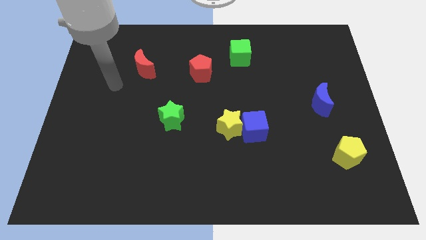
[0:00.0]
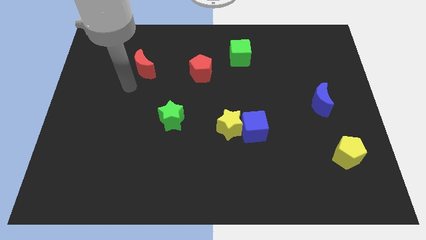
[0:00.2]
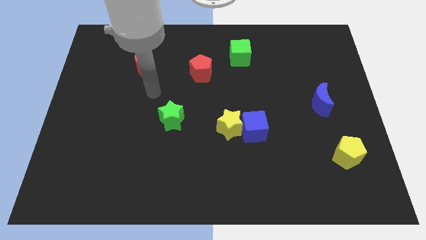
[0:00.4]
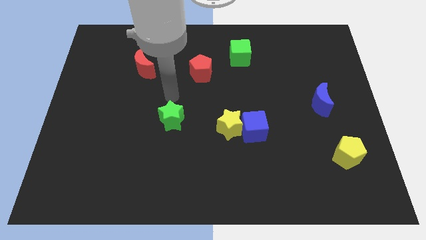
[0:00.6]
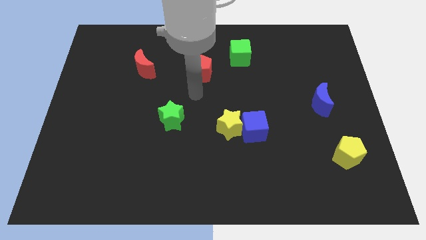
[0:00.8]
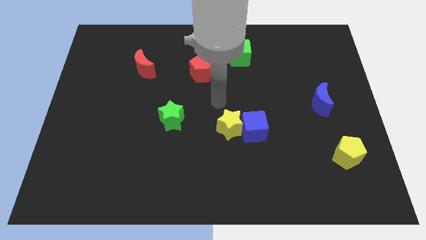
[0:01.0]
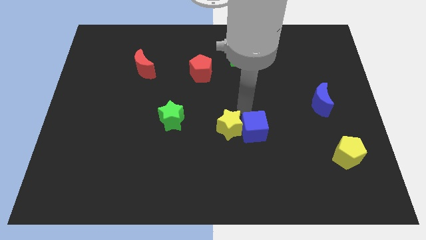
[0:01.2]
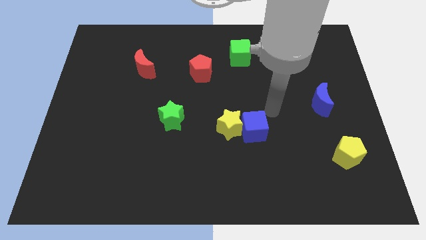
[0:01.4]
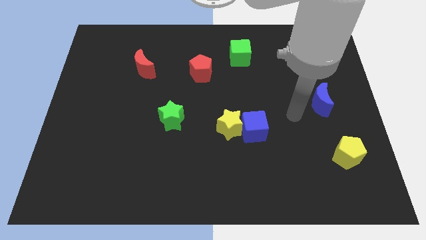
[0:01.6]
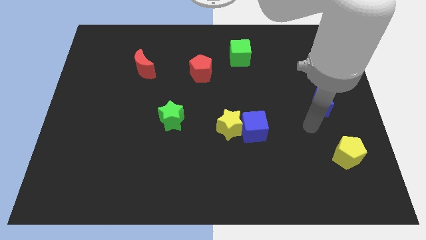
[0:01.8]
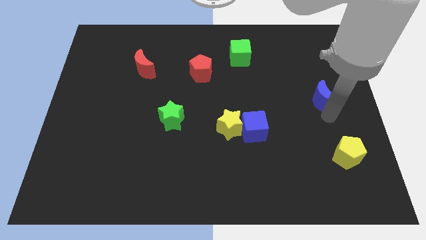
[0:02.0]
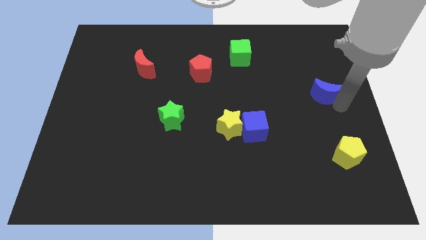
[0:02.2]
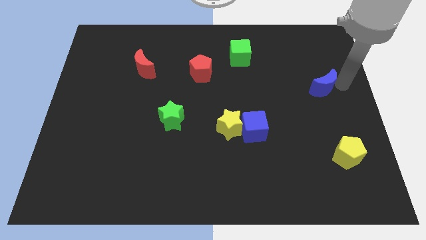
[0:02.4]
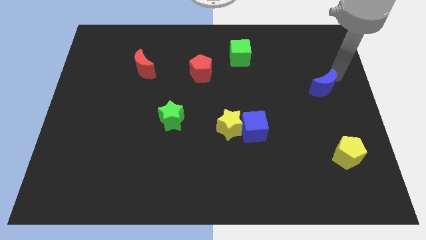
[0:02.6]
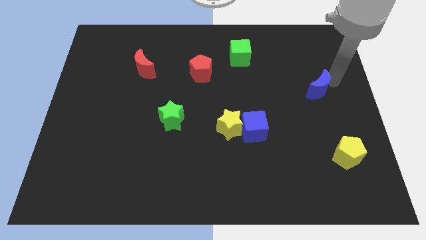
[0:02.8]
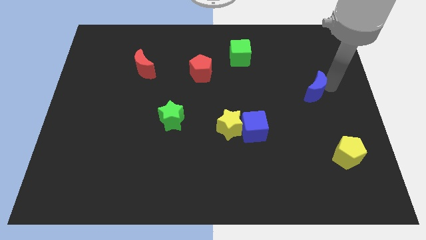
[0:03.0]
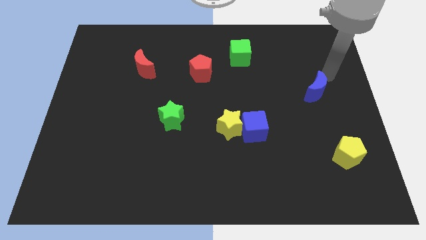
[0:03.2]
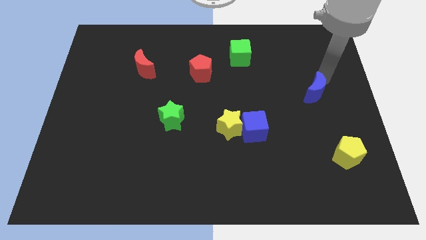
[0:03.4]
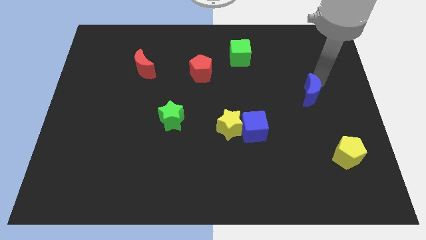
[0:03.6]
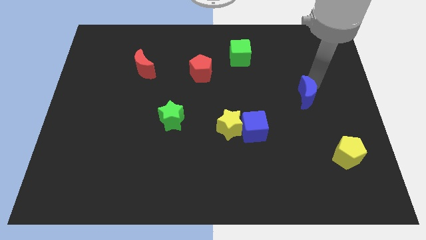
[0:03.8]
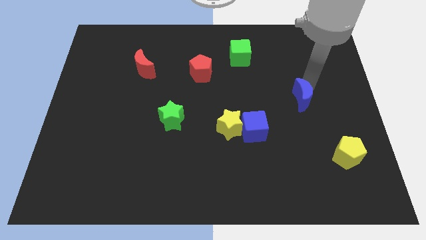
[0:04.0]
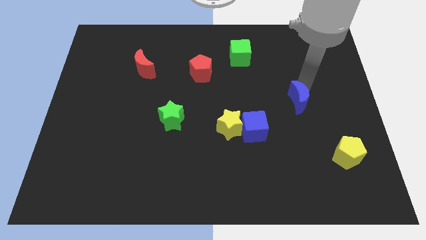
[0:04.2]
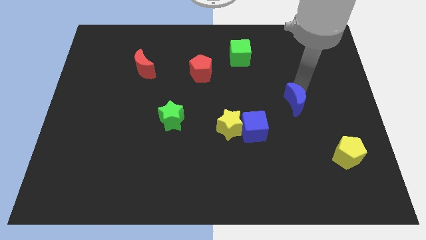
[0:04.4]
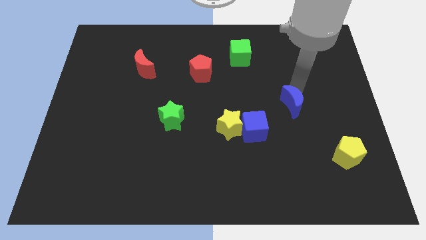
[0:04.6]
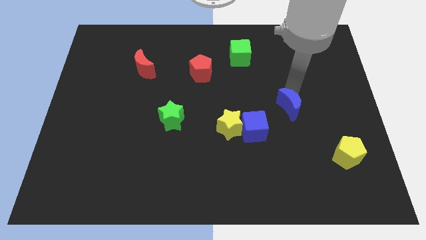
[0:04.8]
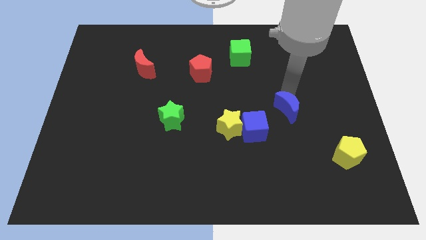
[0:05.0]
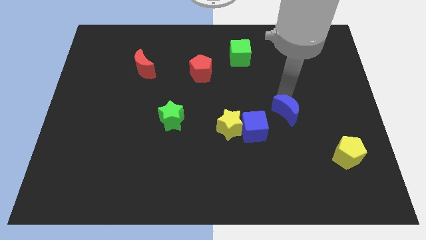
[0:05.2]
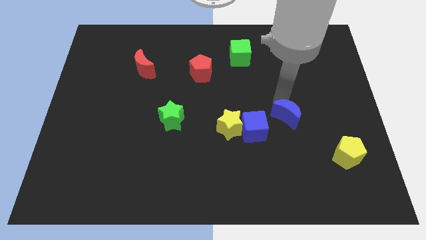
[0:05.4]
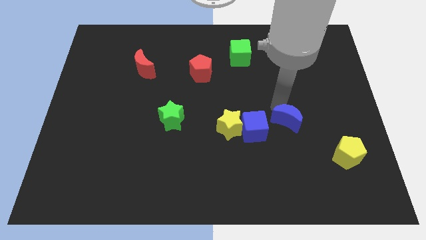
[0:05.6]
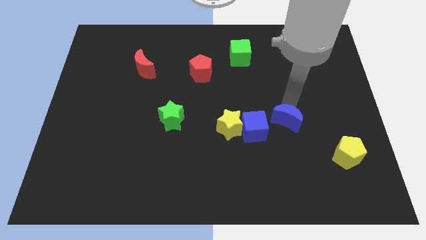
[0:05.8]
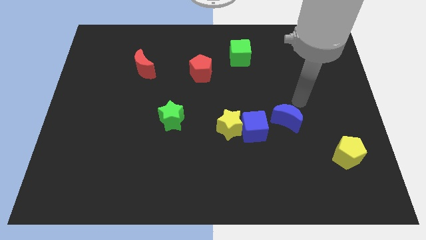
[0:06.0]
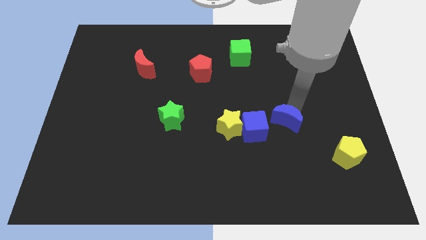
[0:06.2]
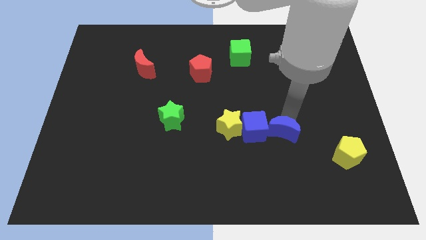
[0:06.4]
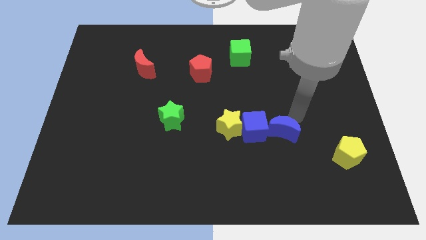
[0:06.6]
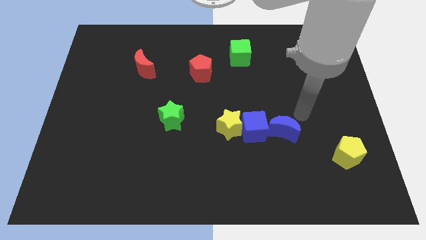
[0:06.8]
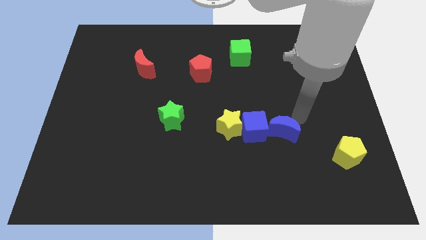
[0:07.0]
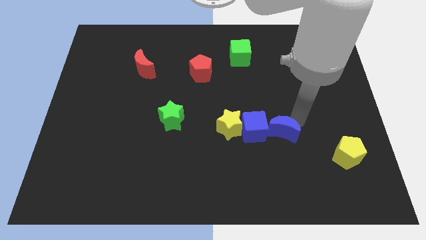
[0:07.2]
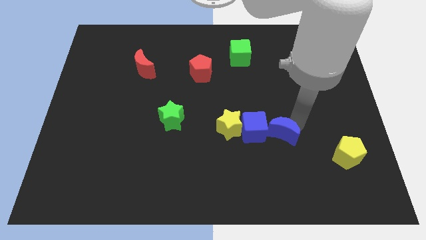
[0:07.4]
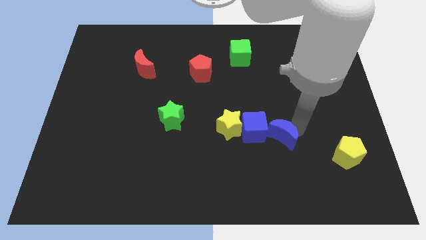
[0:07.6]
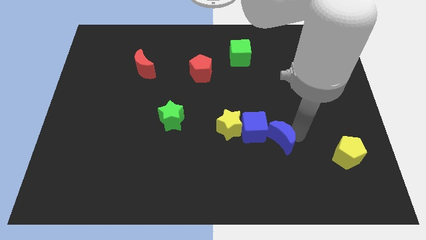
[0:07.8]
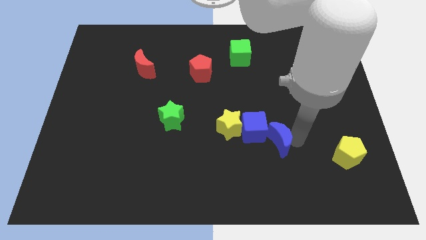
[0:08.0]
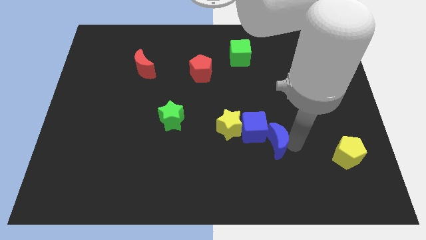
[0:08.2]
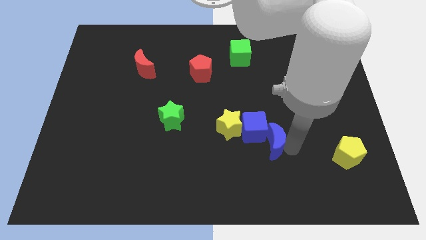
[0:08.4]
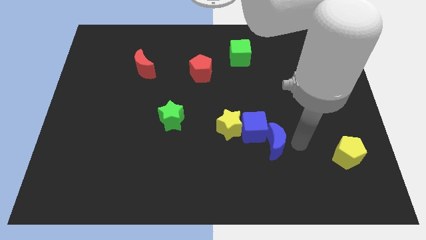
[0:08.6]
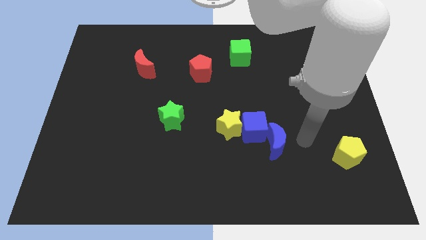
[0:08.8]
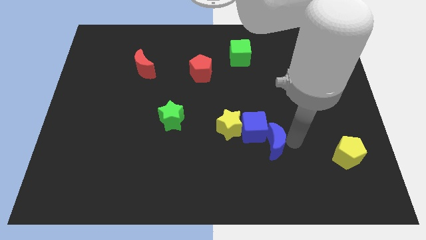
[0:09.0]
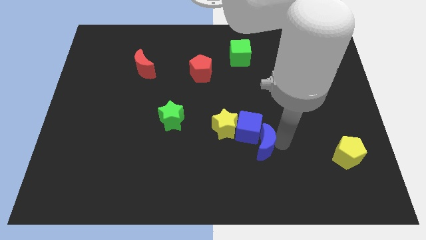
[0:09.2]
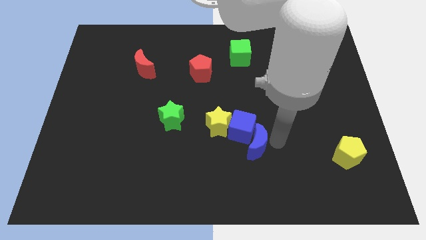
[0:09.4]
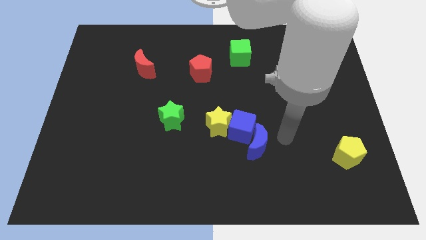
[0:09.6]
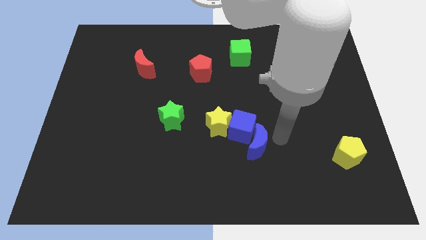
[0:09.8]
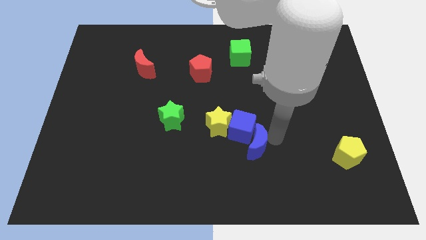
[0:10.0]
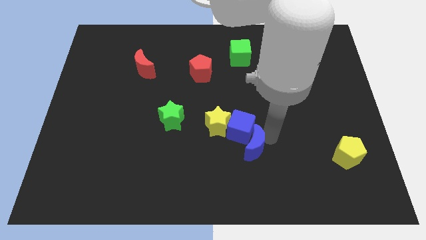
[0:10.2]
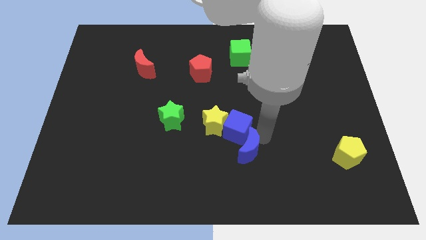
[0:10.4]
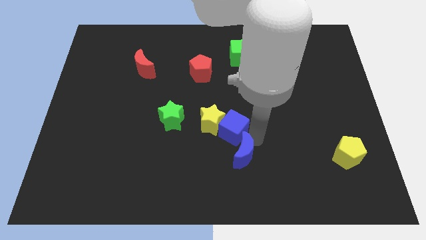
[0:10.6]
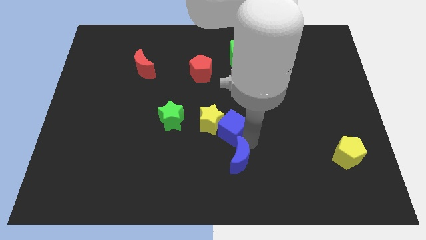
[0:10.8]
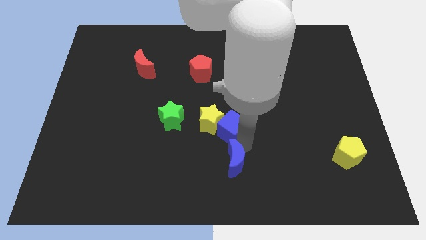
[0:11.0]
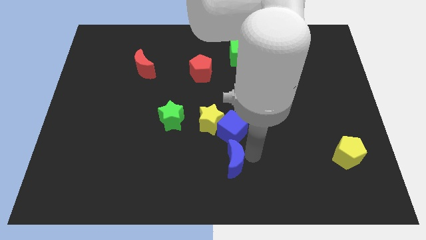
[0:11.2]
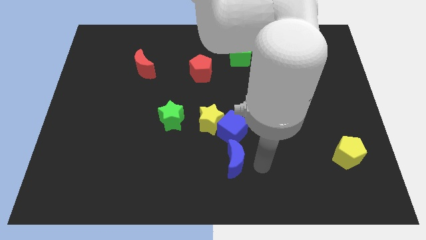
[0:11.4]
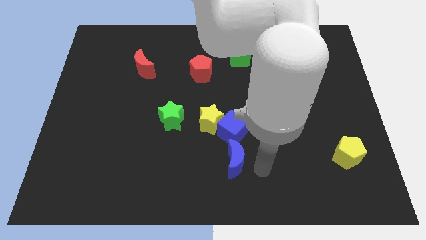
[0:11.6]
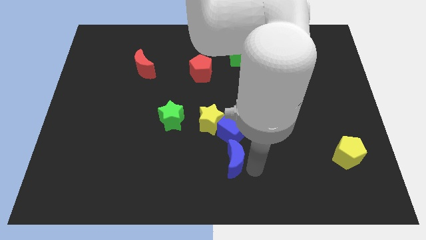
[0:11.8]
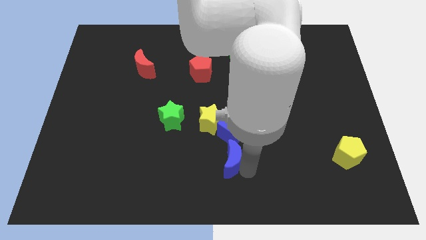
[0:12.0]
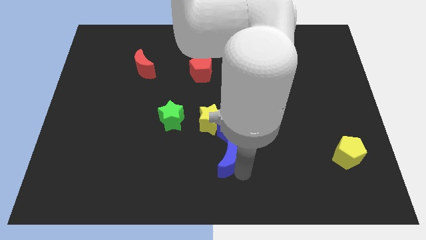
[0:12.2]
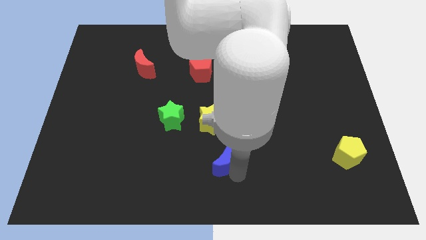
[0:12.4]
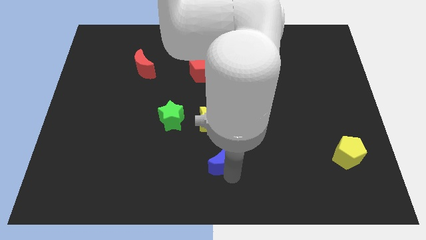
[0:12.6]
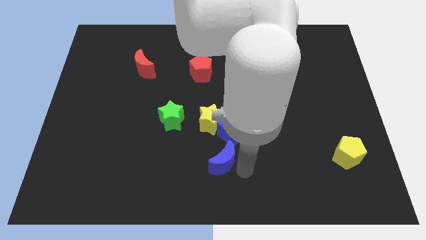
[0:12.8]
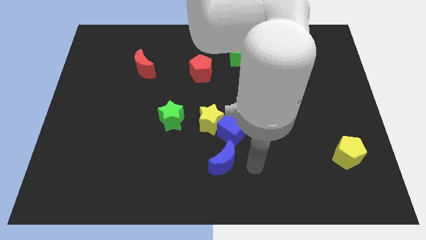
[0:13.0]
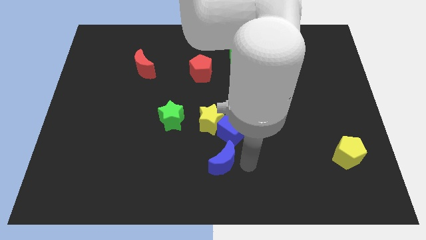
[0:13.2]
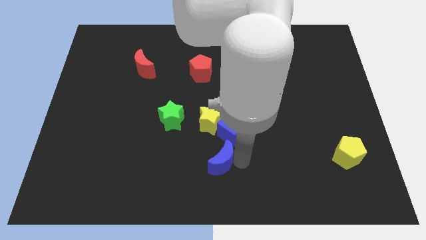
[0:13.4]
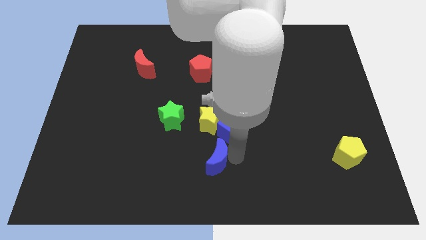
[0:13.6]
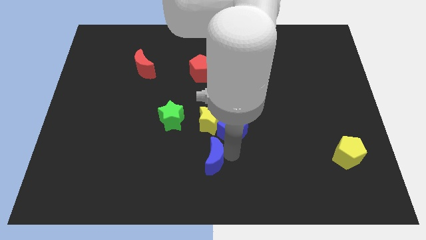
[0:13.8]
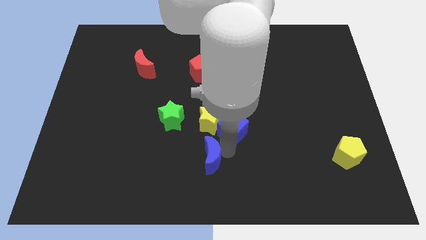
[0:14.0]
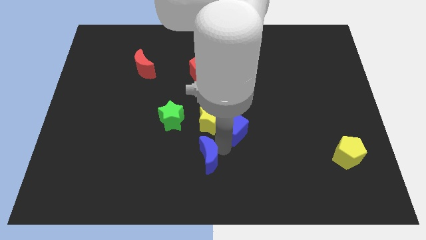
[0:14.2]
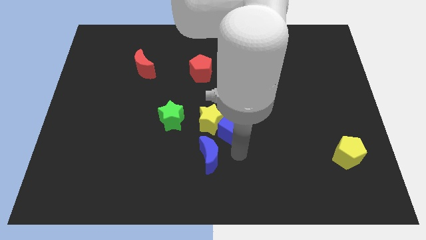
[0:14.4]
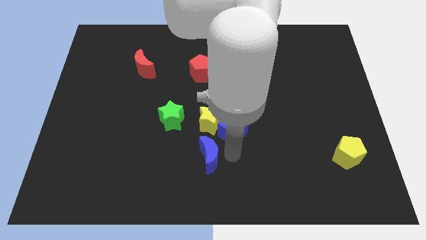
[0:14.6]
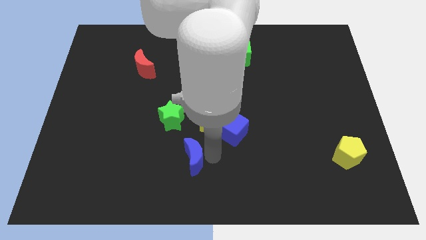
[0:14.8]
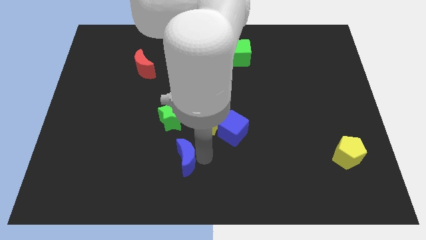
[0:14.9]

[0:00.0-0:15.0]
move the blue moon to the bottom of the green star
